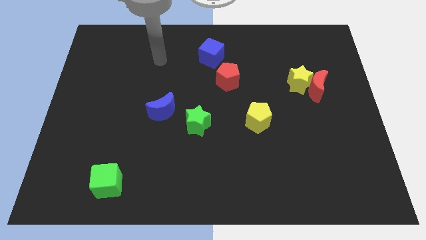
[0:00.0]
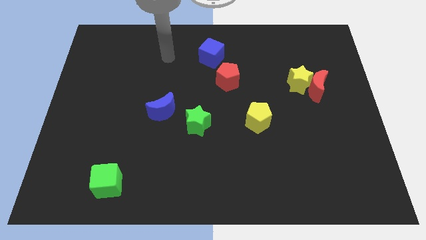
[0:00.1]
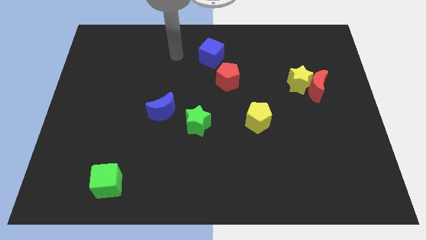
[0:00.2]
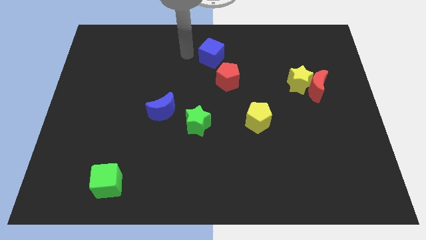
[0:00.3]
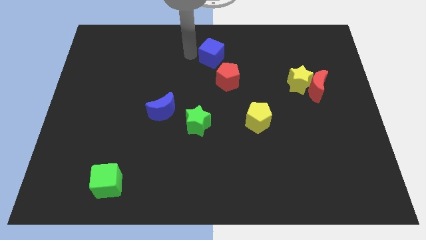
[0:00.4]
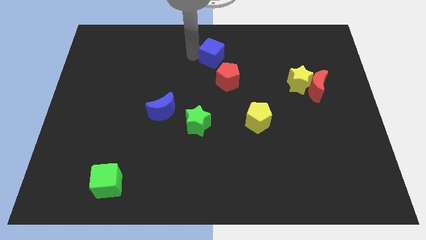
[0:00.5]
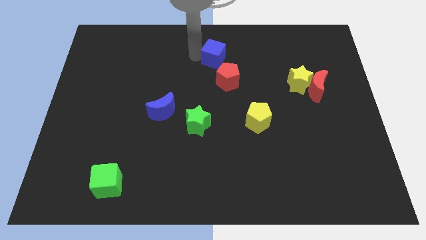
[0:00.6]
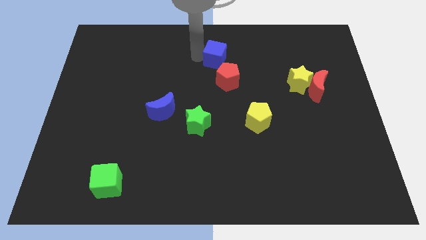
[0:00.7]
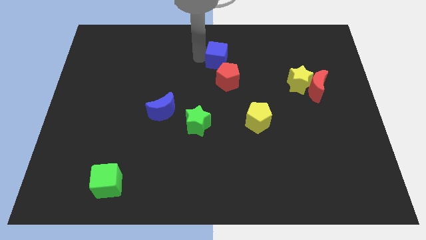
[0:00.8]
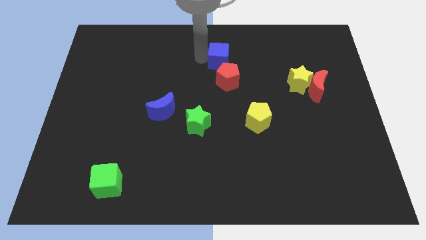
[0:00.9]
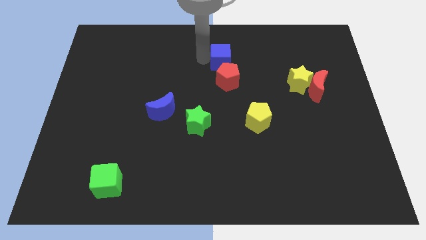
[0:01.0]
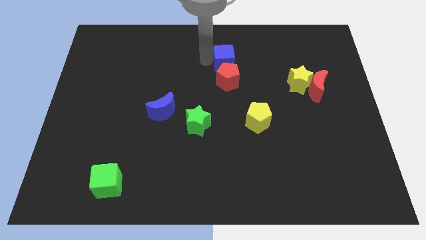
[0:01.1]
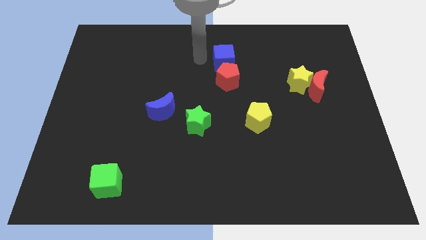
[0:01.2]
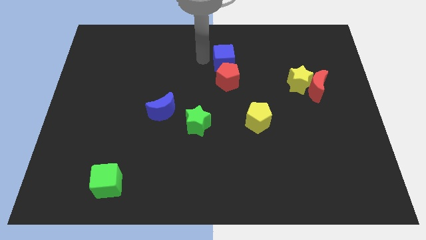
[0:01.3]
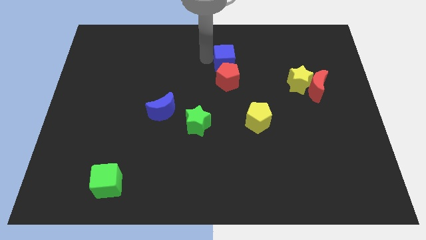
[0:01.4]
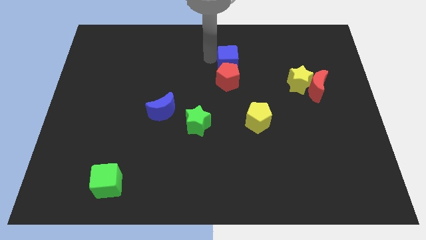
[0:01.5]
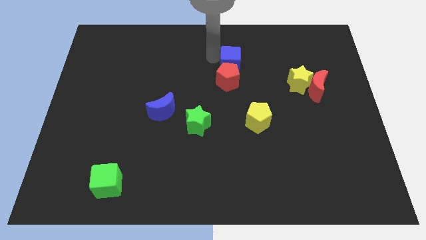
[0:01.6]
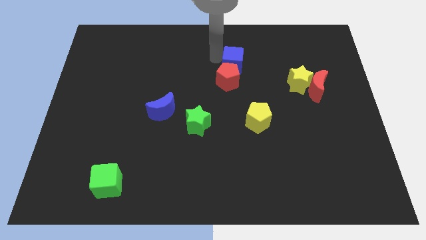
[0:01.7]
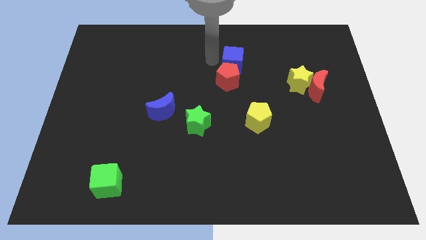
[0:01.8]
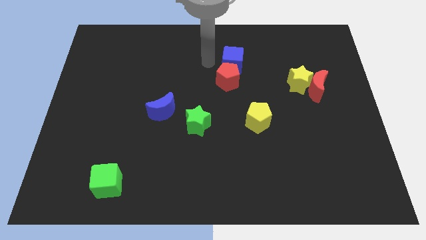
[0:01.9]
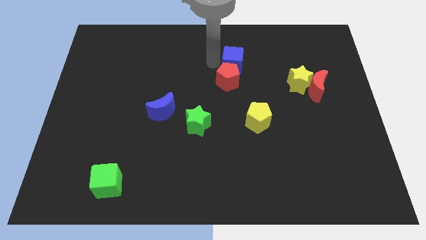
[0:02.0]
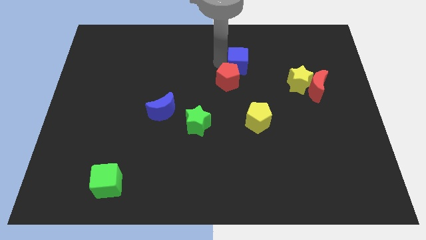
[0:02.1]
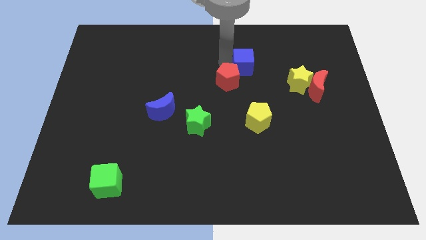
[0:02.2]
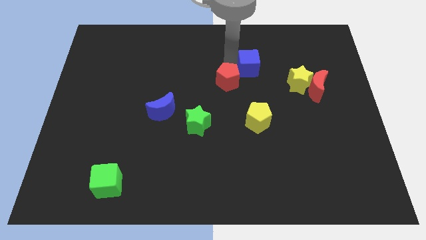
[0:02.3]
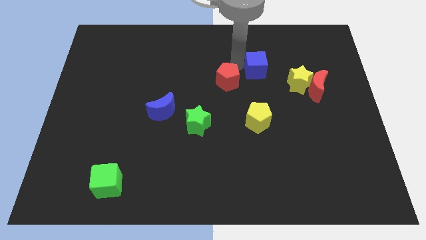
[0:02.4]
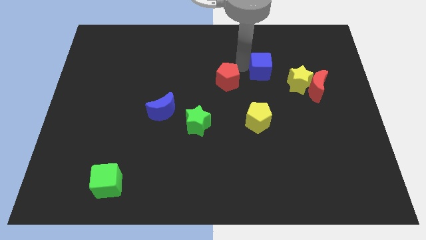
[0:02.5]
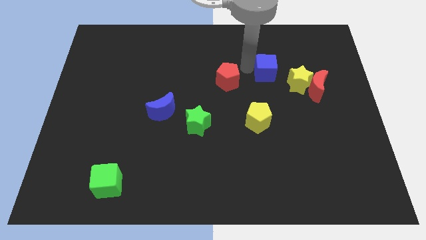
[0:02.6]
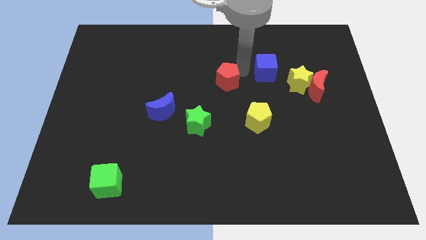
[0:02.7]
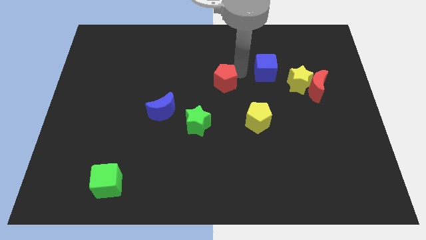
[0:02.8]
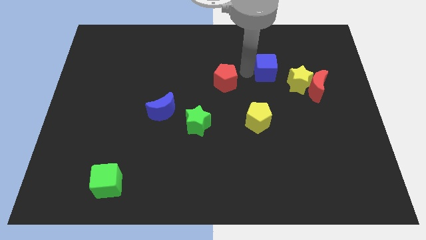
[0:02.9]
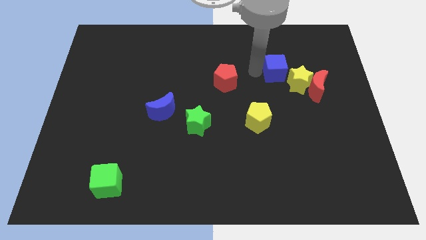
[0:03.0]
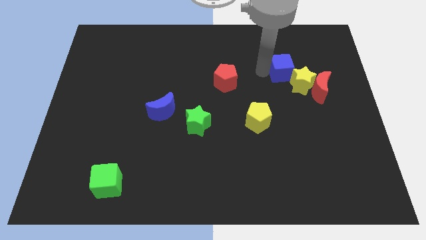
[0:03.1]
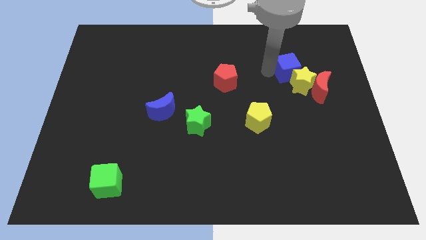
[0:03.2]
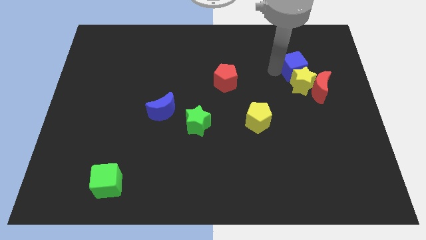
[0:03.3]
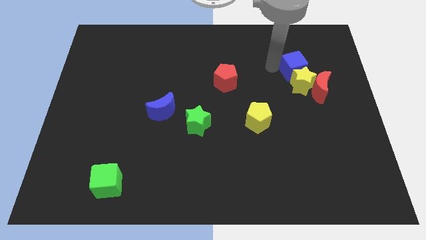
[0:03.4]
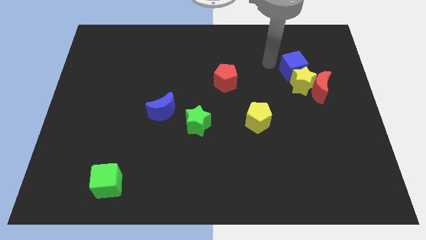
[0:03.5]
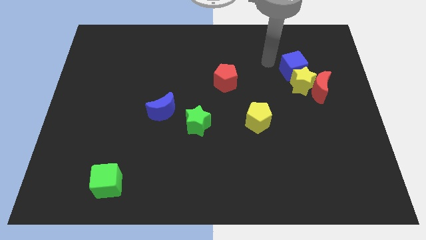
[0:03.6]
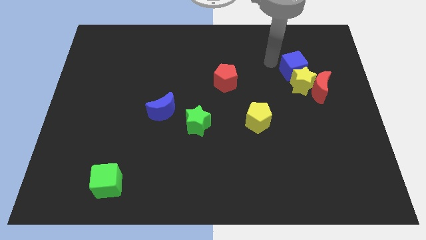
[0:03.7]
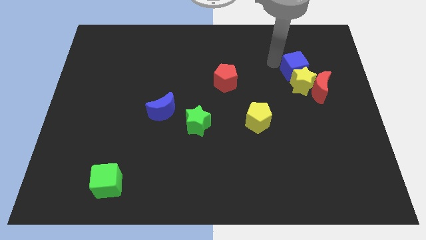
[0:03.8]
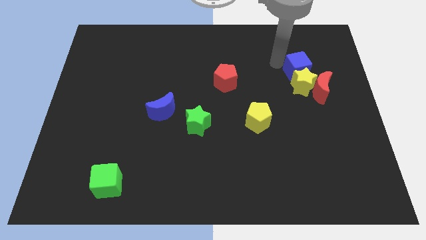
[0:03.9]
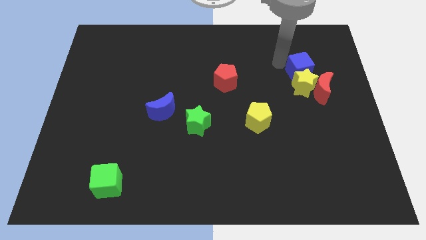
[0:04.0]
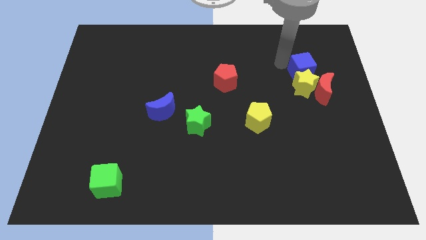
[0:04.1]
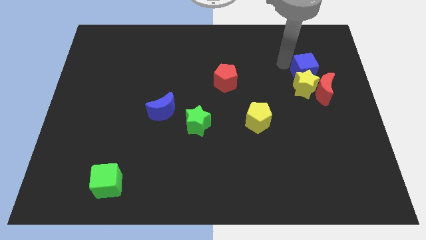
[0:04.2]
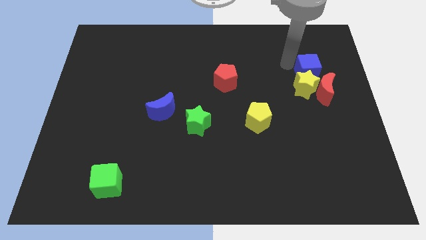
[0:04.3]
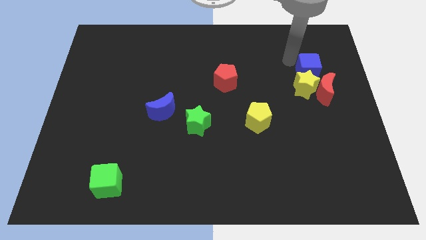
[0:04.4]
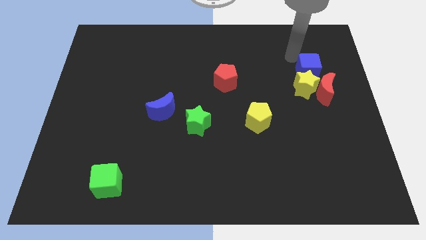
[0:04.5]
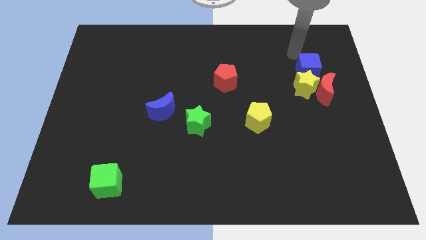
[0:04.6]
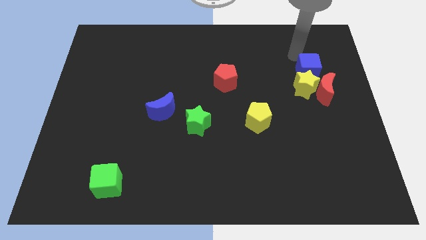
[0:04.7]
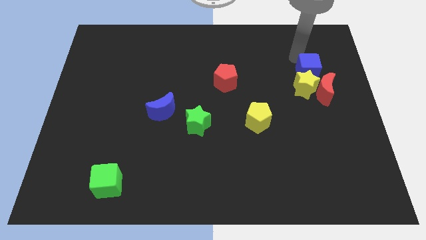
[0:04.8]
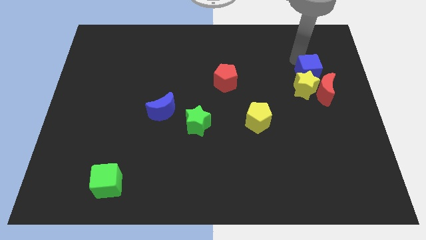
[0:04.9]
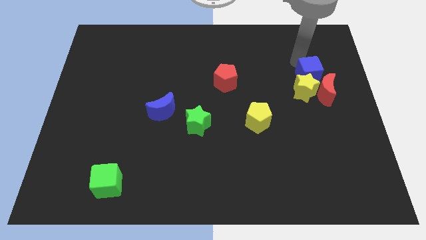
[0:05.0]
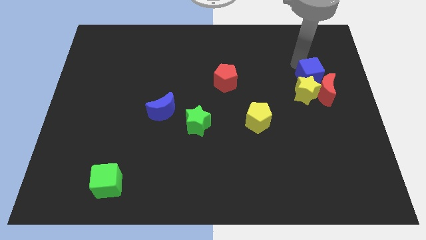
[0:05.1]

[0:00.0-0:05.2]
push the blue cube close to the red moon

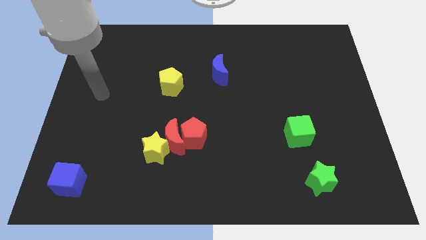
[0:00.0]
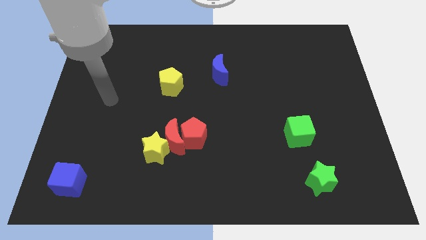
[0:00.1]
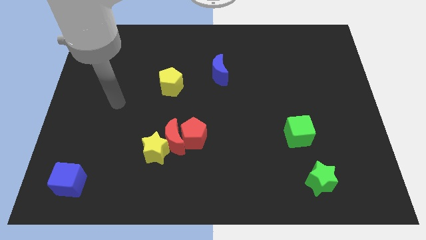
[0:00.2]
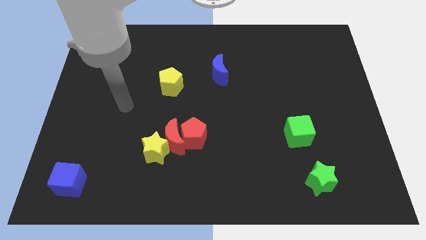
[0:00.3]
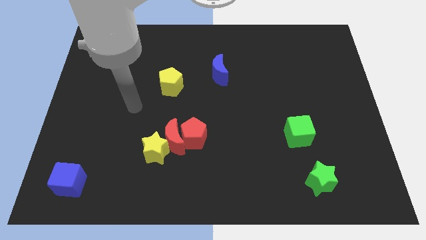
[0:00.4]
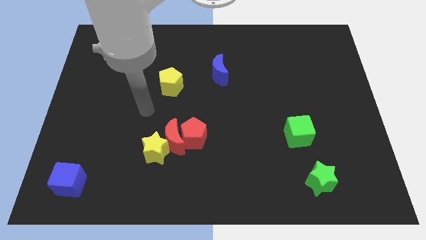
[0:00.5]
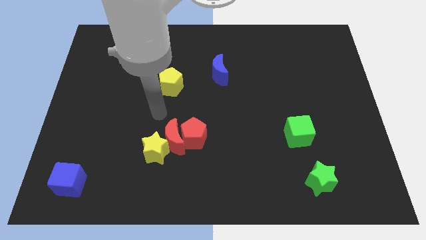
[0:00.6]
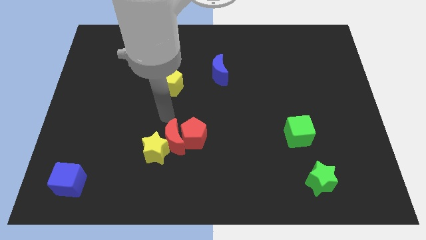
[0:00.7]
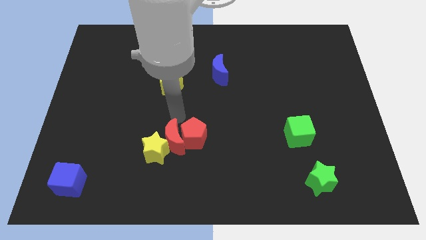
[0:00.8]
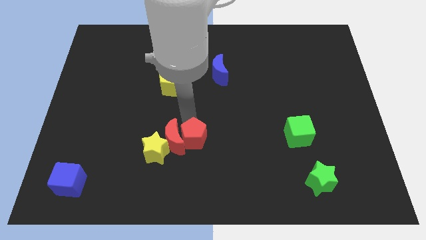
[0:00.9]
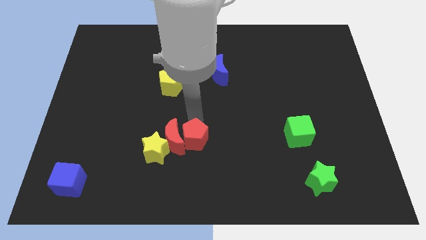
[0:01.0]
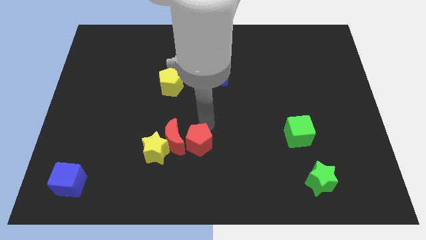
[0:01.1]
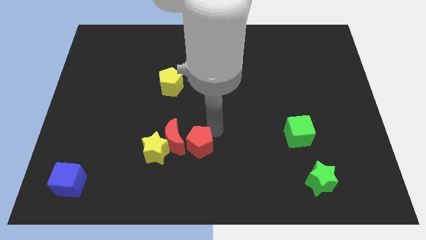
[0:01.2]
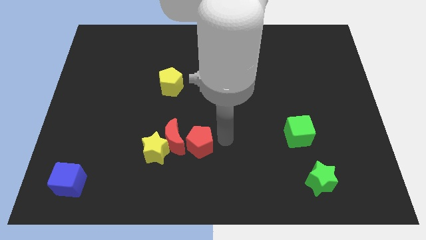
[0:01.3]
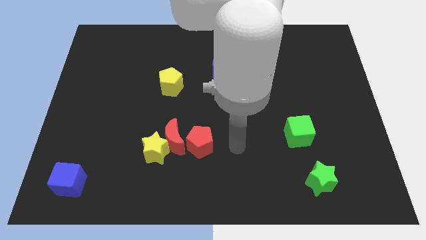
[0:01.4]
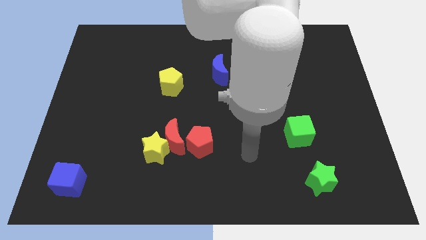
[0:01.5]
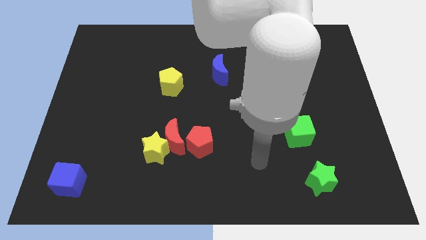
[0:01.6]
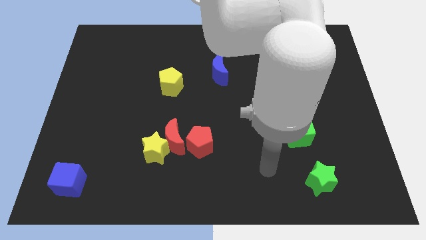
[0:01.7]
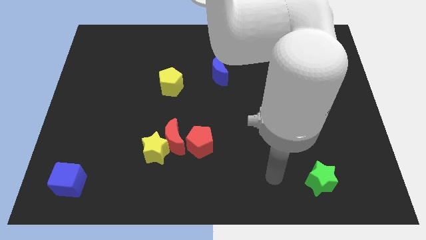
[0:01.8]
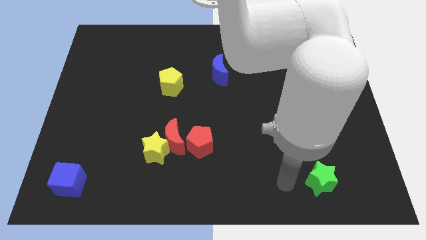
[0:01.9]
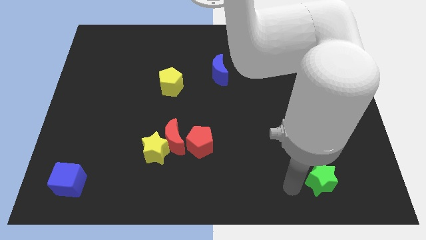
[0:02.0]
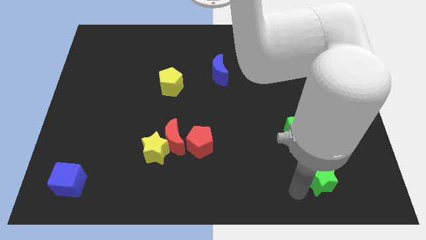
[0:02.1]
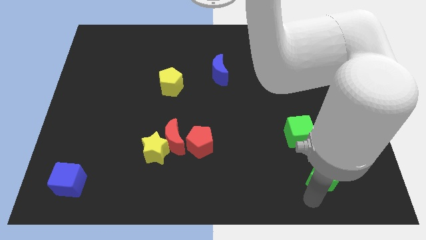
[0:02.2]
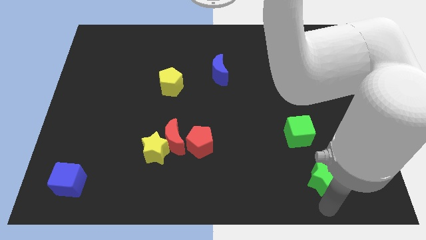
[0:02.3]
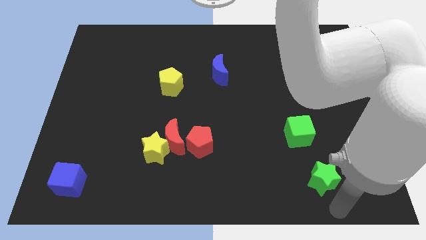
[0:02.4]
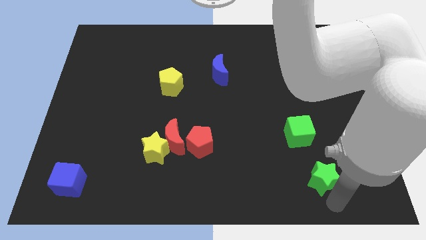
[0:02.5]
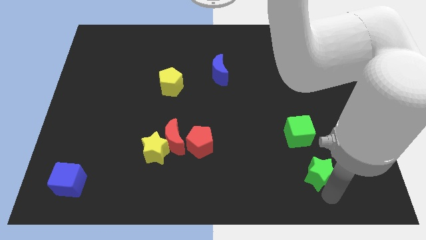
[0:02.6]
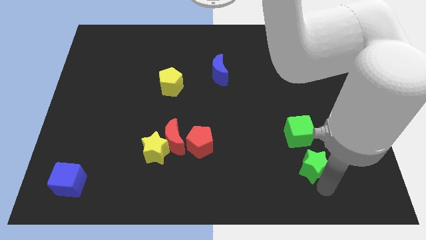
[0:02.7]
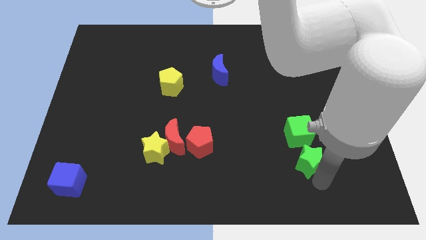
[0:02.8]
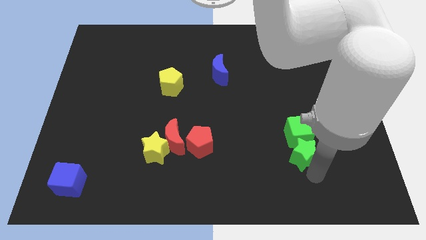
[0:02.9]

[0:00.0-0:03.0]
move the green star close to the green cube
